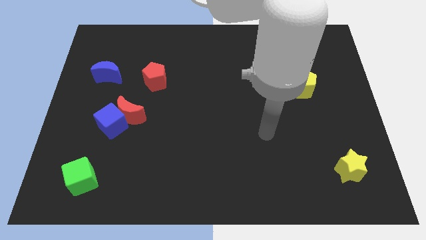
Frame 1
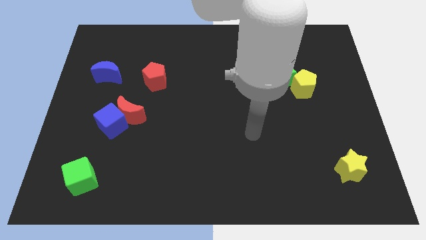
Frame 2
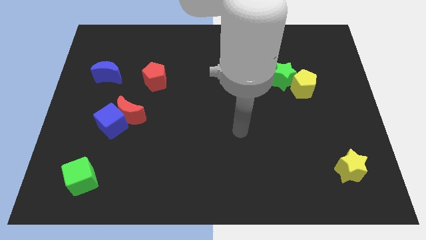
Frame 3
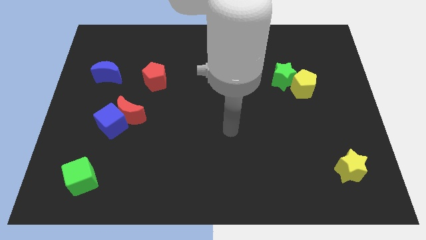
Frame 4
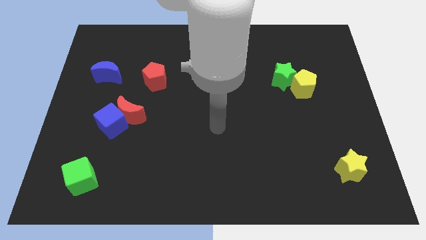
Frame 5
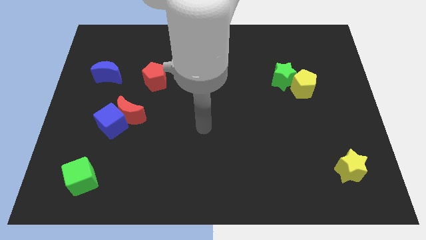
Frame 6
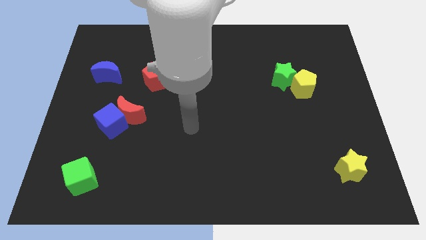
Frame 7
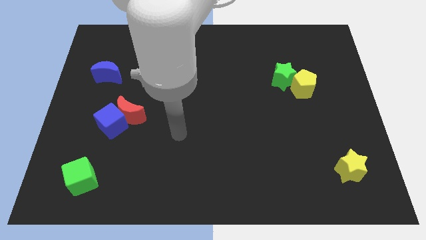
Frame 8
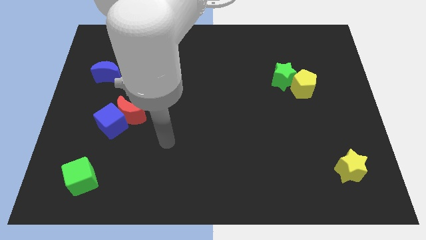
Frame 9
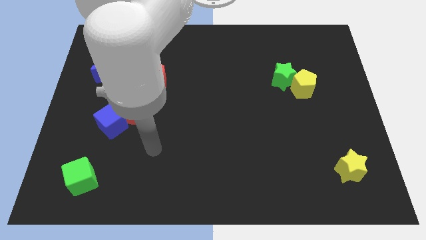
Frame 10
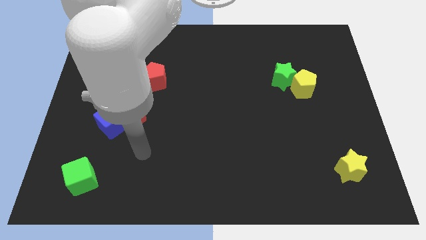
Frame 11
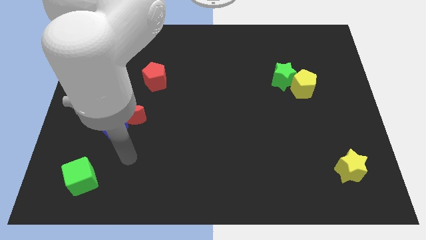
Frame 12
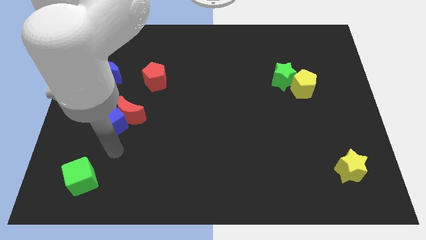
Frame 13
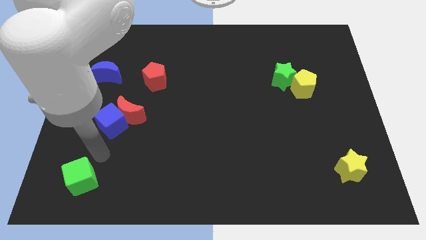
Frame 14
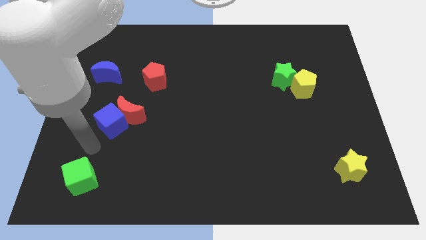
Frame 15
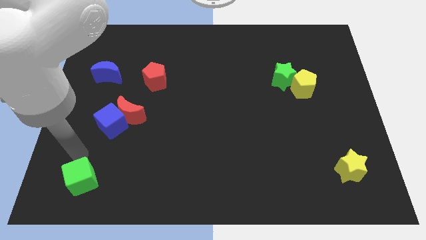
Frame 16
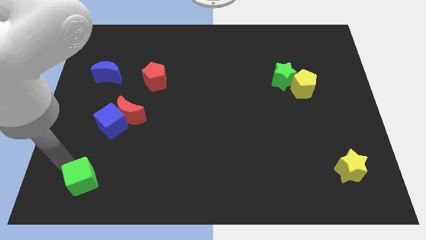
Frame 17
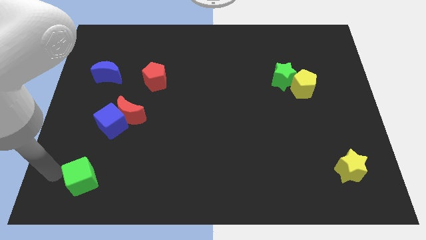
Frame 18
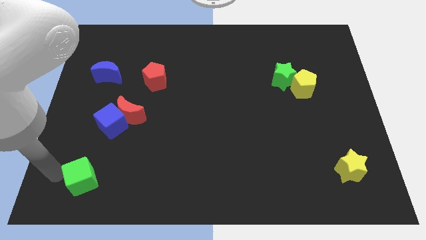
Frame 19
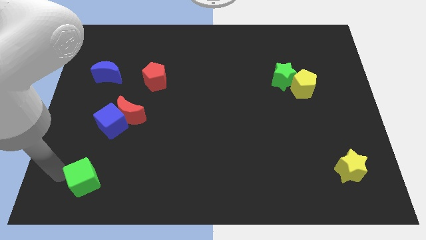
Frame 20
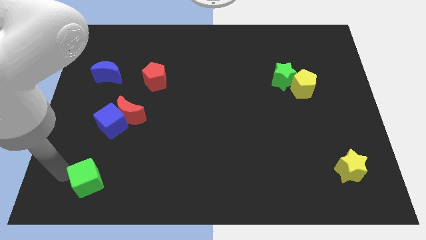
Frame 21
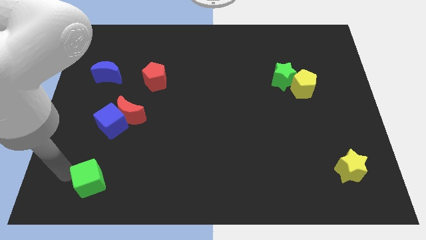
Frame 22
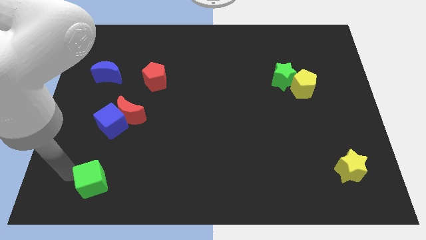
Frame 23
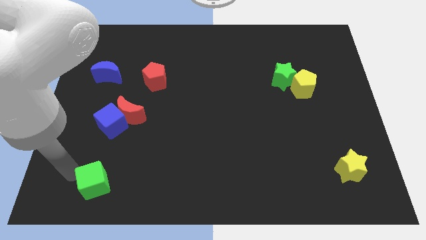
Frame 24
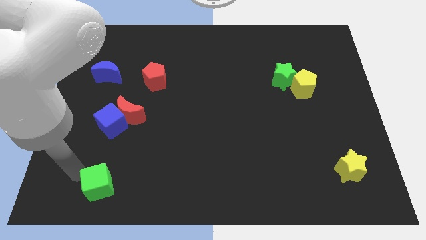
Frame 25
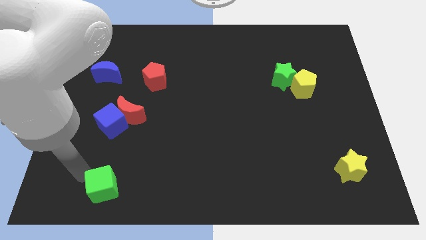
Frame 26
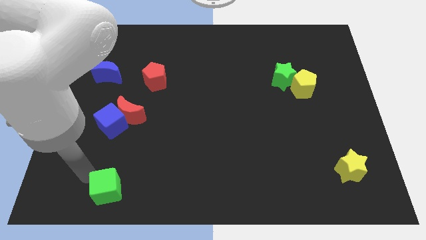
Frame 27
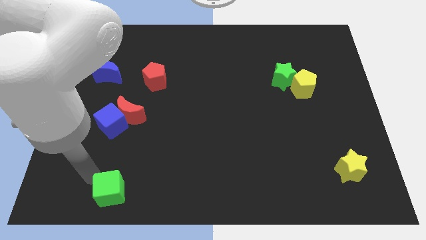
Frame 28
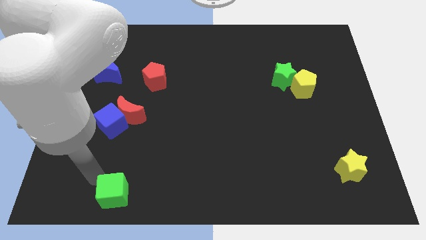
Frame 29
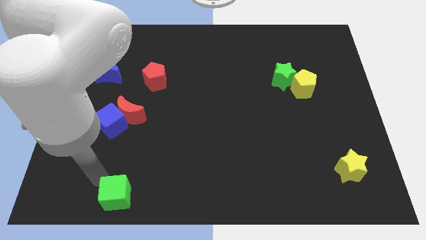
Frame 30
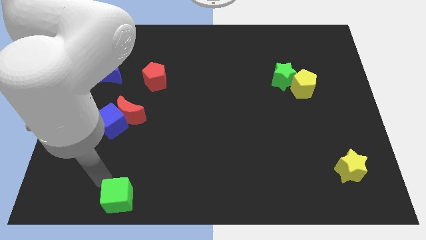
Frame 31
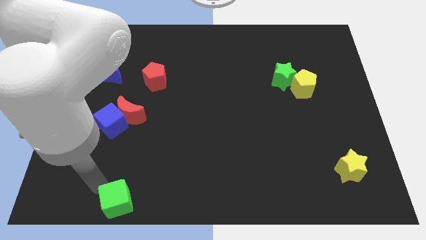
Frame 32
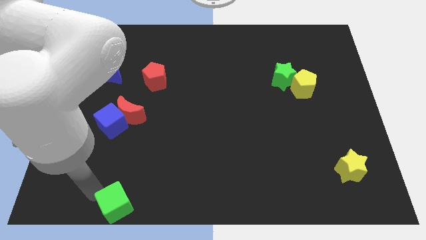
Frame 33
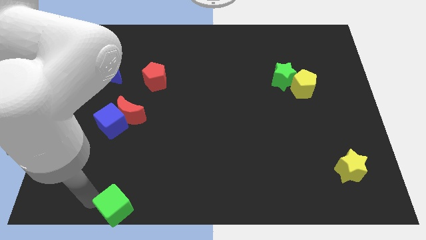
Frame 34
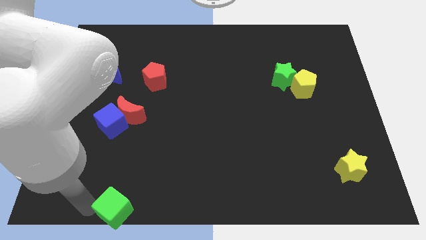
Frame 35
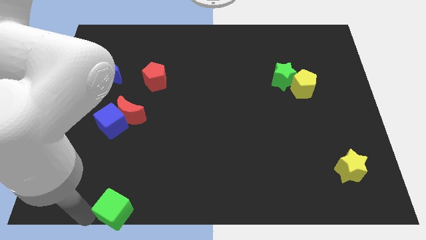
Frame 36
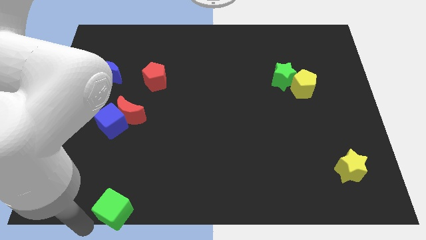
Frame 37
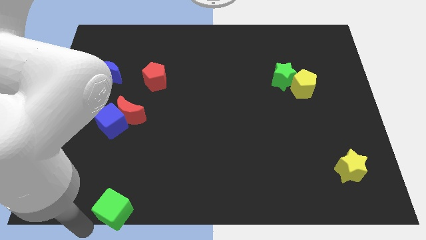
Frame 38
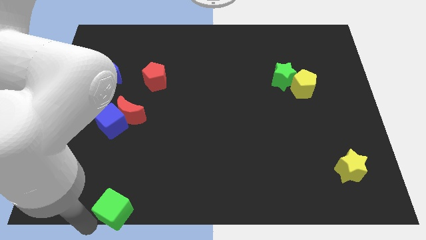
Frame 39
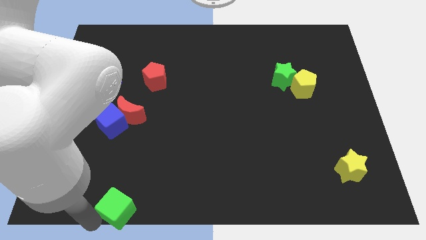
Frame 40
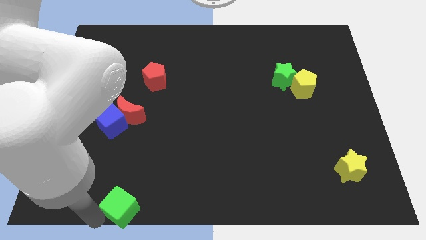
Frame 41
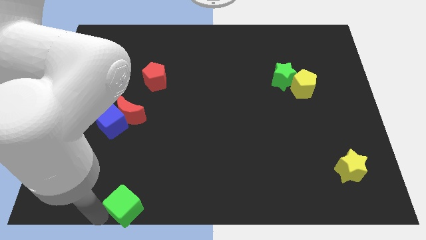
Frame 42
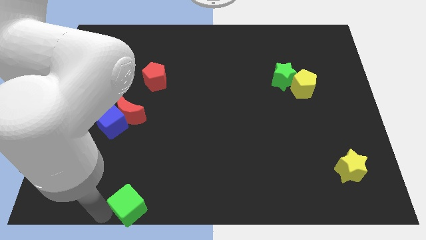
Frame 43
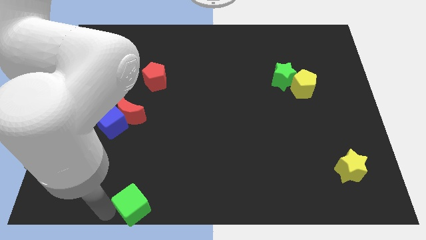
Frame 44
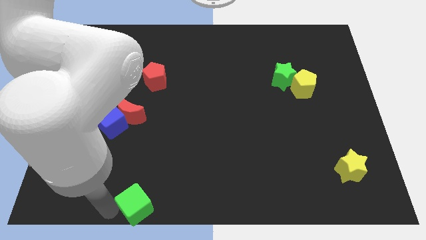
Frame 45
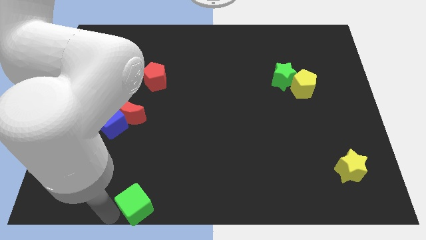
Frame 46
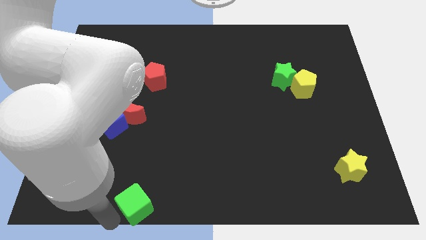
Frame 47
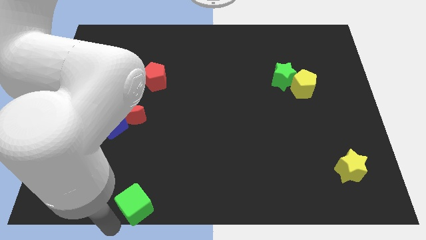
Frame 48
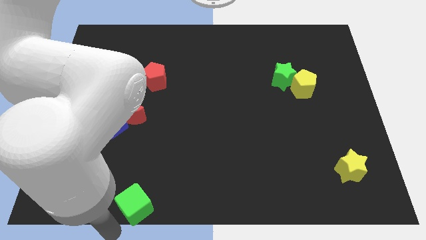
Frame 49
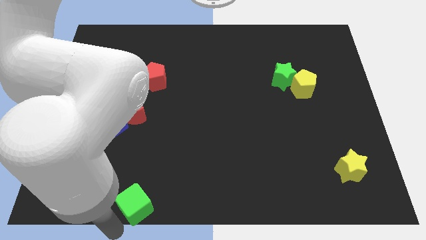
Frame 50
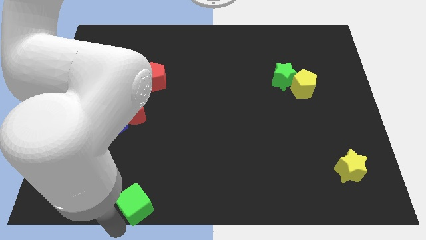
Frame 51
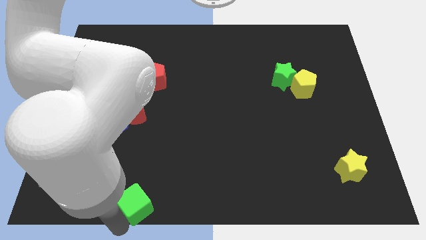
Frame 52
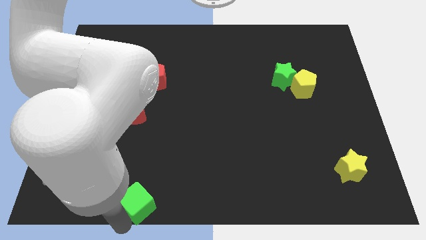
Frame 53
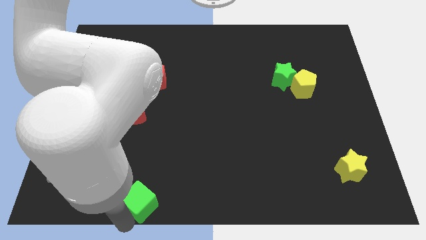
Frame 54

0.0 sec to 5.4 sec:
push the green cube to the bottom side

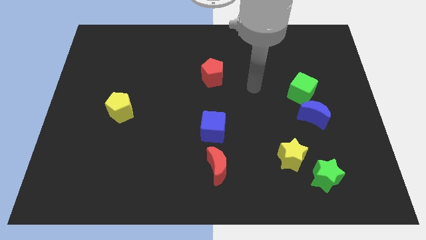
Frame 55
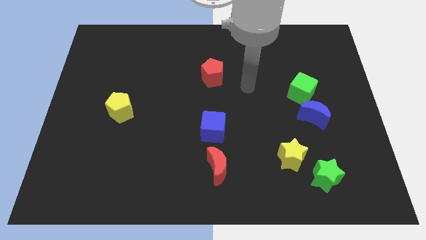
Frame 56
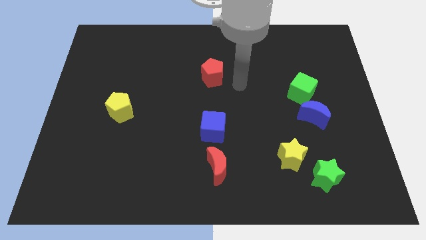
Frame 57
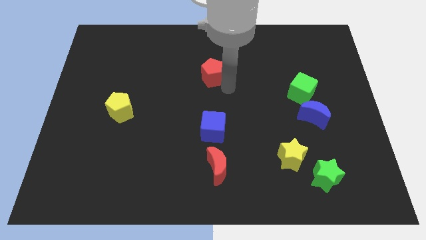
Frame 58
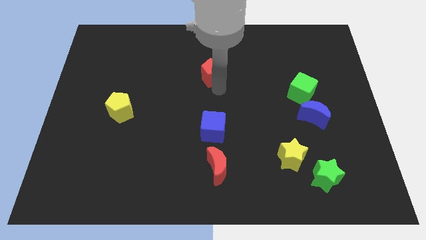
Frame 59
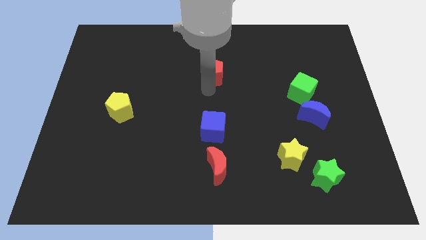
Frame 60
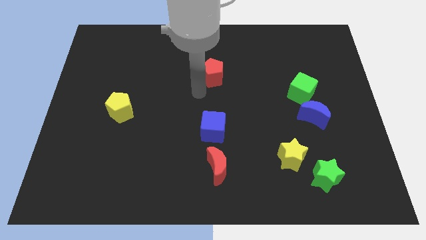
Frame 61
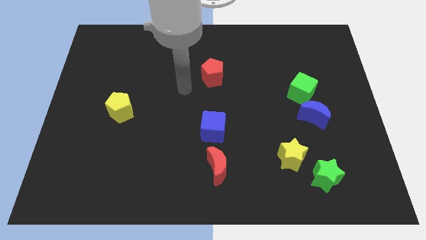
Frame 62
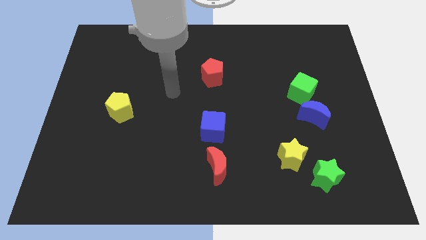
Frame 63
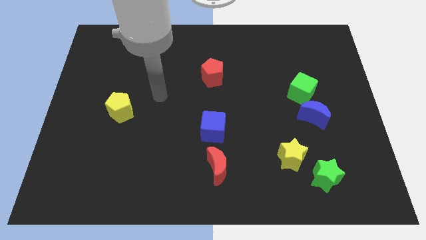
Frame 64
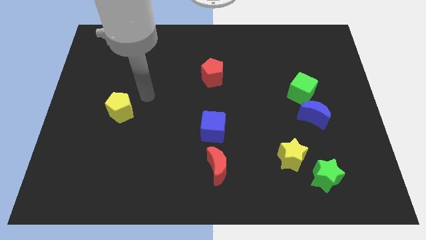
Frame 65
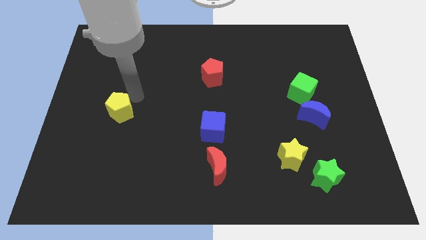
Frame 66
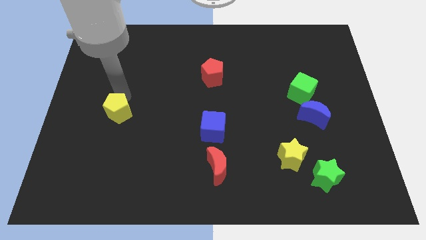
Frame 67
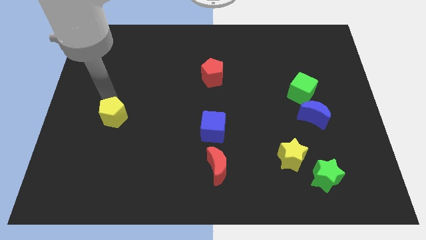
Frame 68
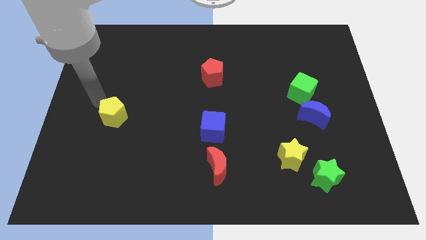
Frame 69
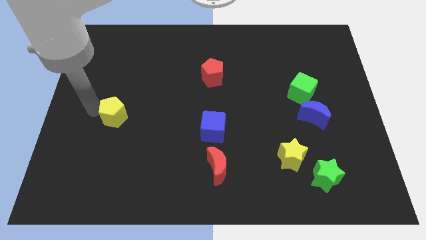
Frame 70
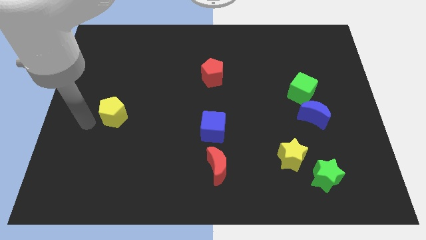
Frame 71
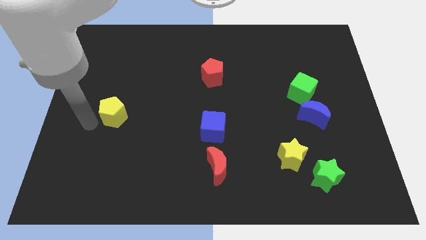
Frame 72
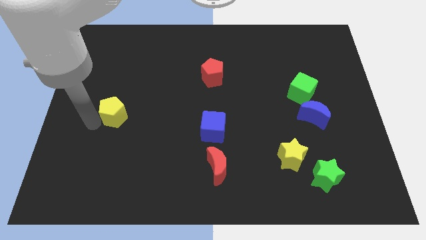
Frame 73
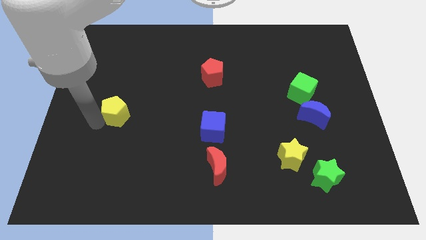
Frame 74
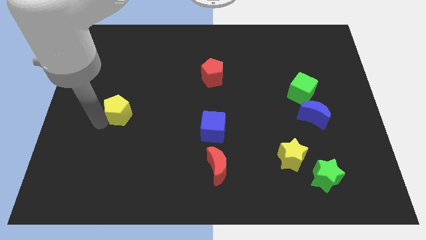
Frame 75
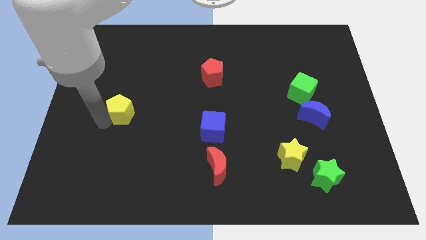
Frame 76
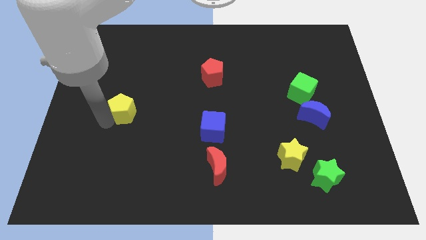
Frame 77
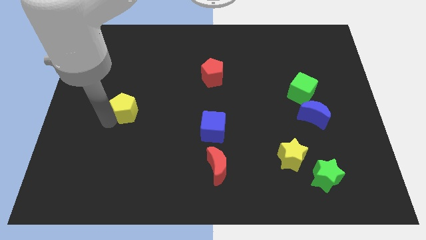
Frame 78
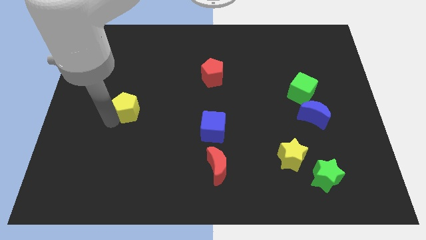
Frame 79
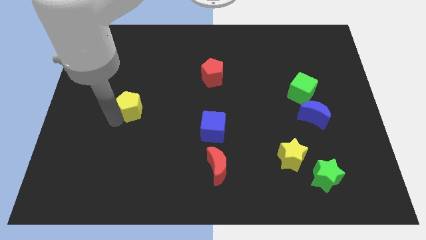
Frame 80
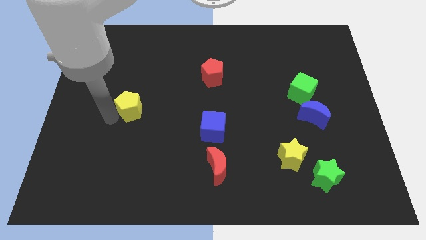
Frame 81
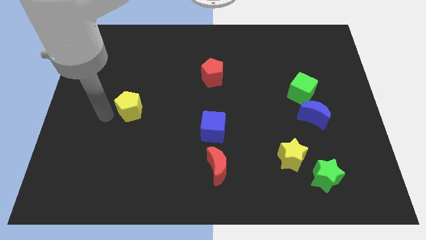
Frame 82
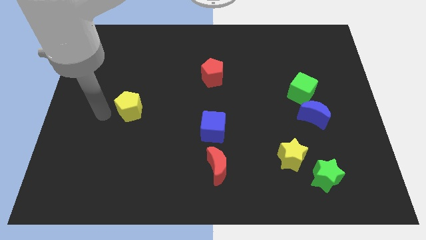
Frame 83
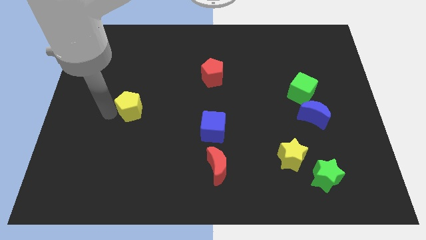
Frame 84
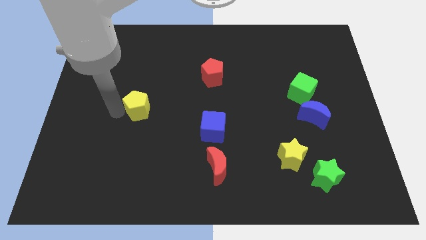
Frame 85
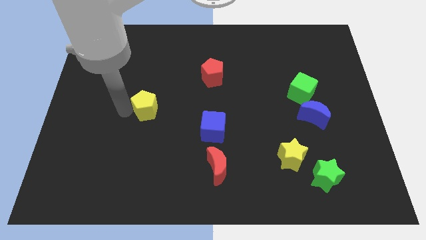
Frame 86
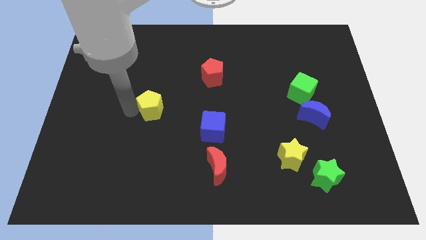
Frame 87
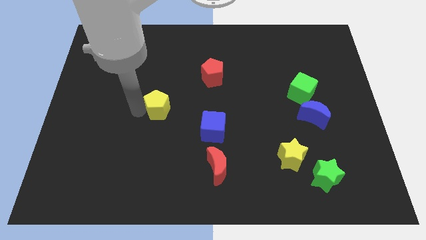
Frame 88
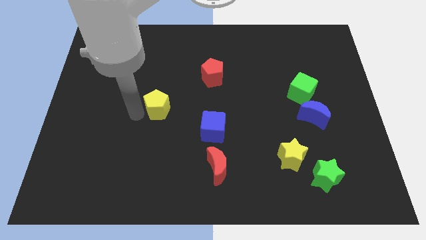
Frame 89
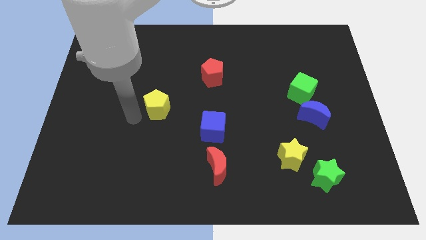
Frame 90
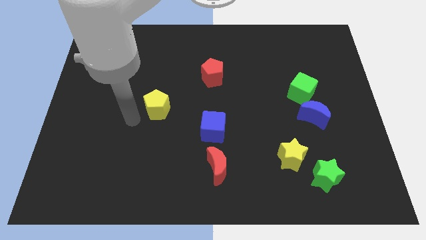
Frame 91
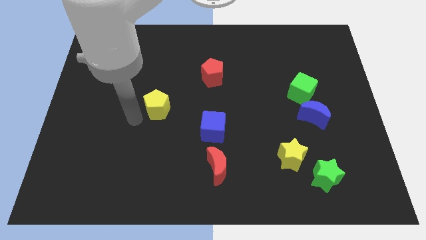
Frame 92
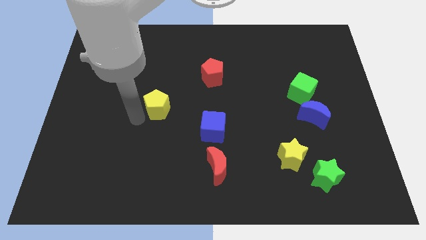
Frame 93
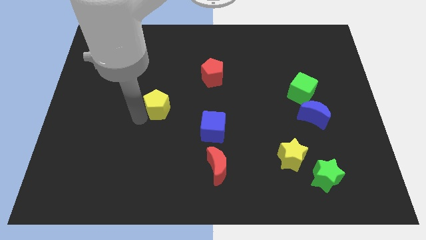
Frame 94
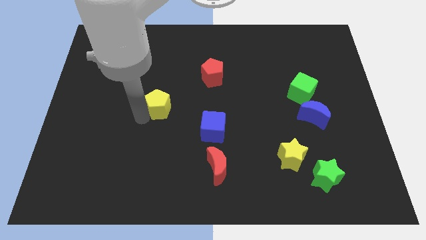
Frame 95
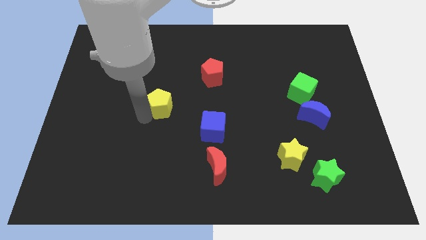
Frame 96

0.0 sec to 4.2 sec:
put the yellow pentagon to the middle
